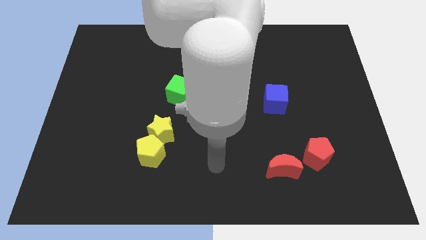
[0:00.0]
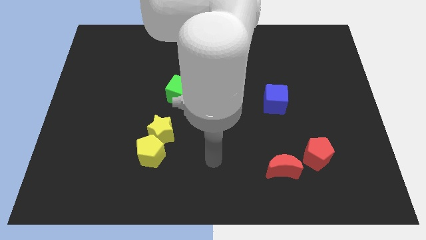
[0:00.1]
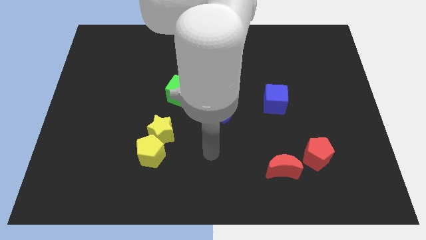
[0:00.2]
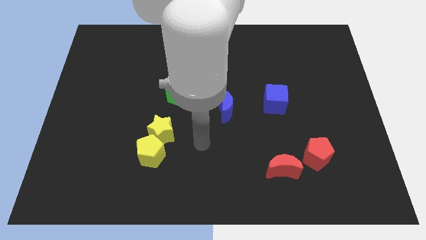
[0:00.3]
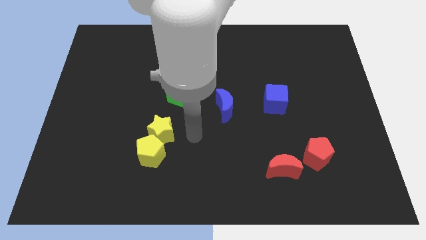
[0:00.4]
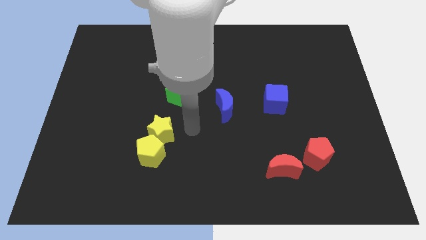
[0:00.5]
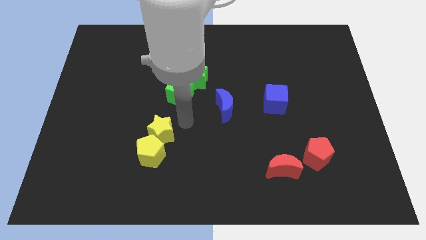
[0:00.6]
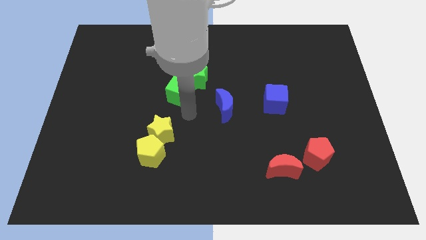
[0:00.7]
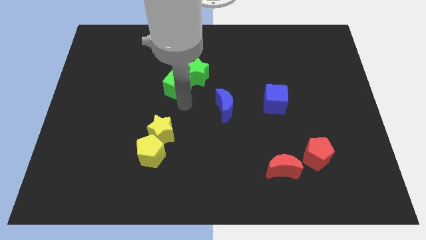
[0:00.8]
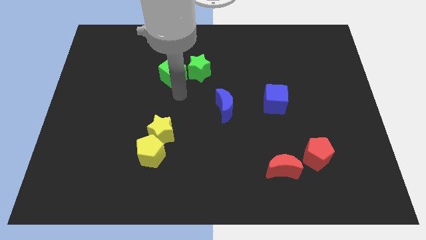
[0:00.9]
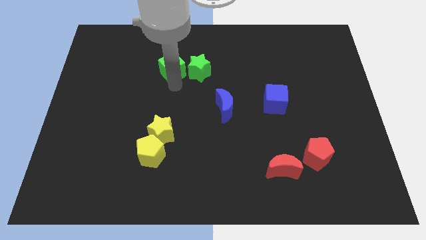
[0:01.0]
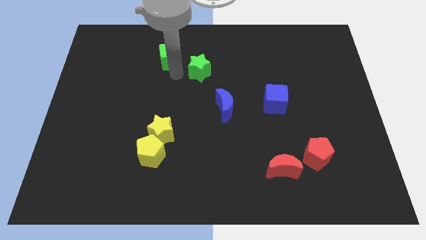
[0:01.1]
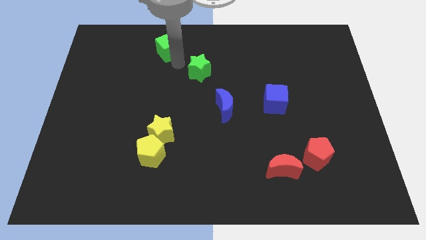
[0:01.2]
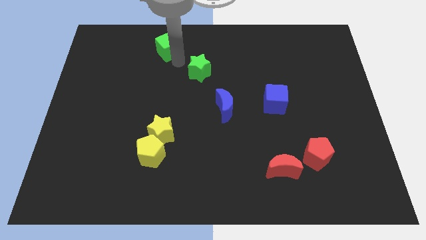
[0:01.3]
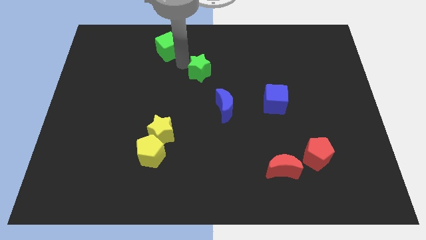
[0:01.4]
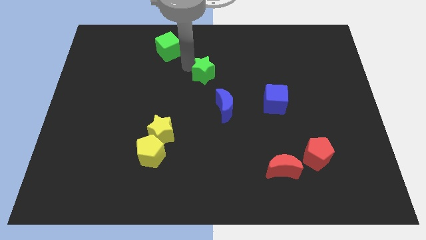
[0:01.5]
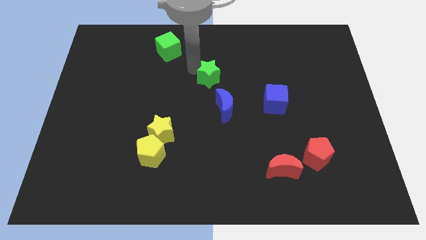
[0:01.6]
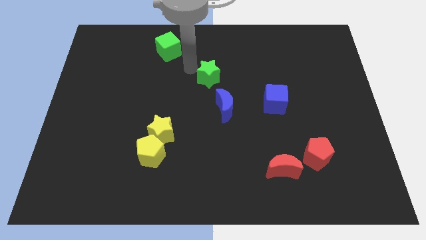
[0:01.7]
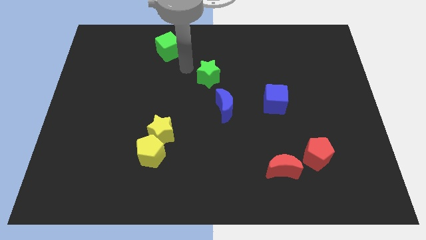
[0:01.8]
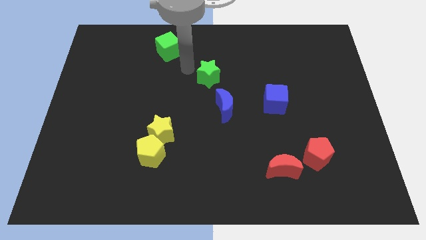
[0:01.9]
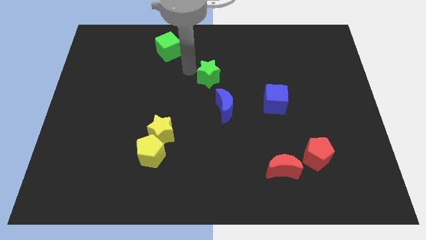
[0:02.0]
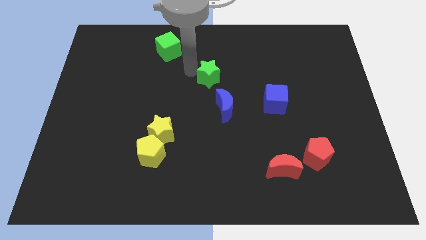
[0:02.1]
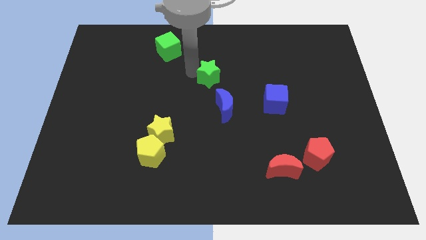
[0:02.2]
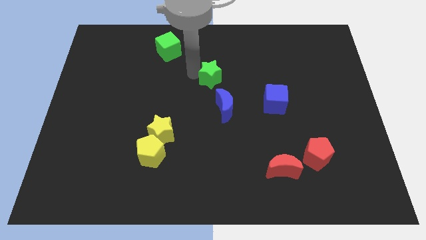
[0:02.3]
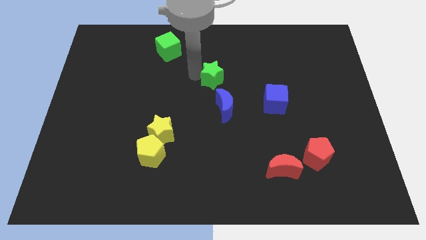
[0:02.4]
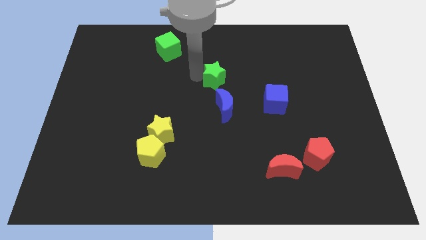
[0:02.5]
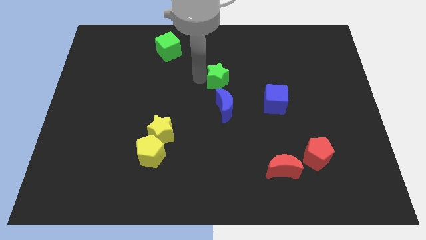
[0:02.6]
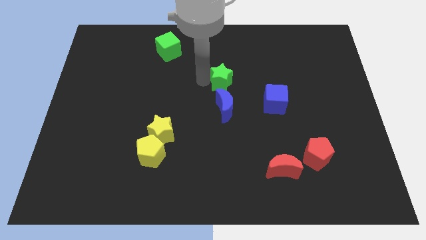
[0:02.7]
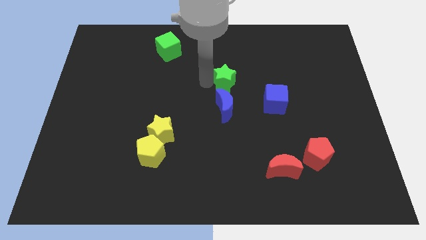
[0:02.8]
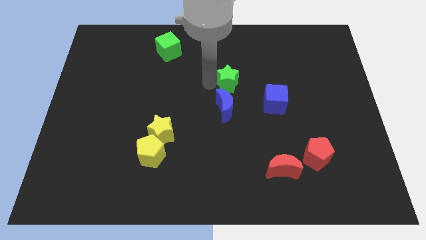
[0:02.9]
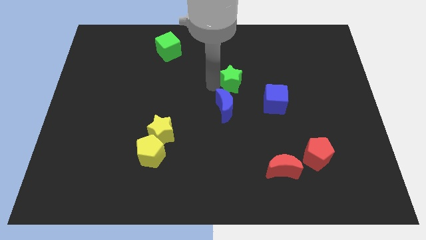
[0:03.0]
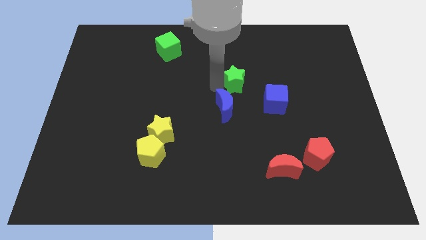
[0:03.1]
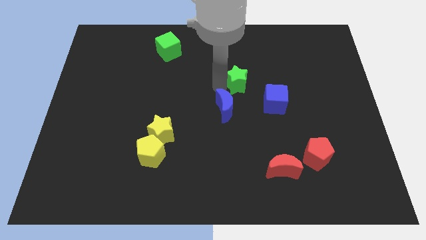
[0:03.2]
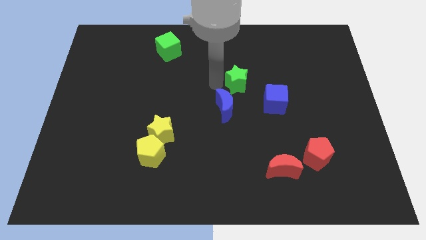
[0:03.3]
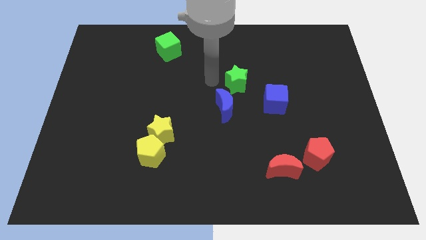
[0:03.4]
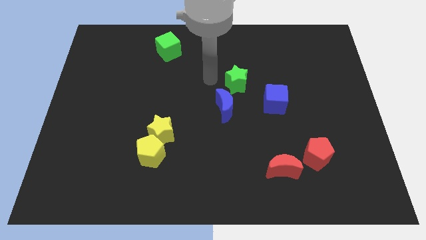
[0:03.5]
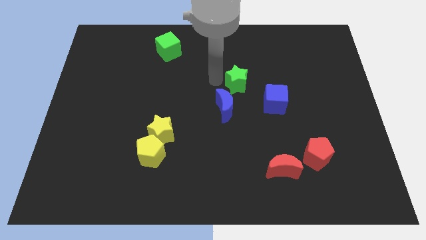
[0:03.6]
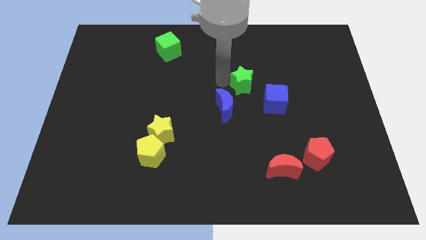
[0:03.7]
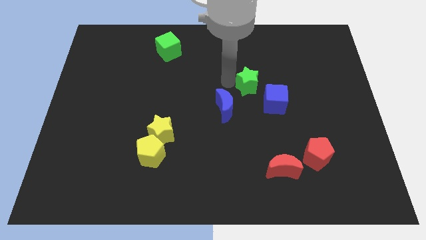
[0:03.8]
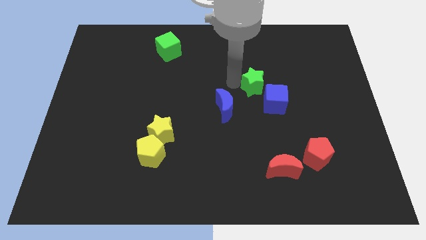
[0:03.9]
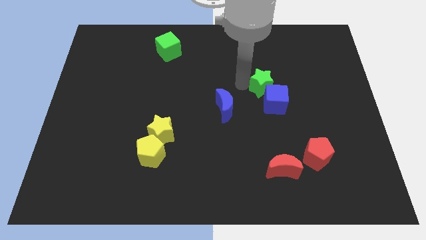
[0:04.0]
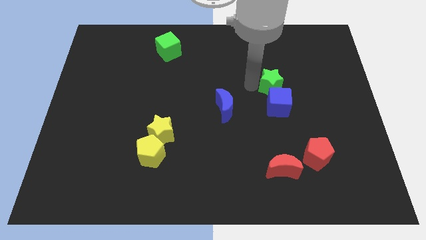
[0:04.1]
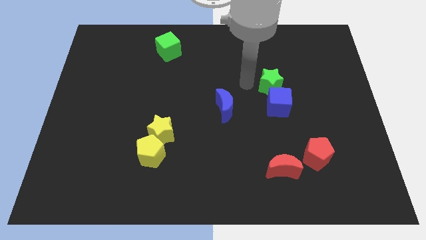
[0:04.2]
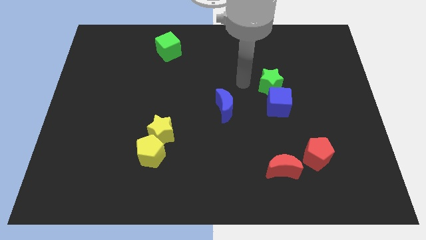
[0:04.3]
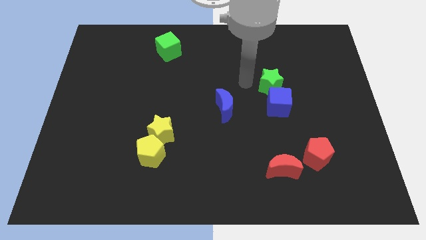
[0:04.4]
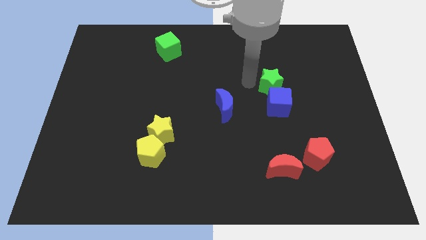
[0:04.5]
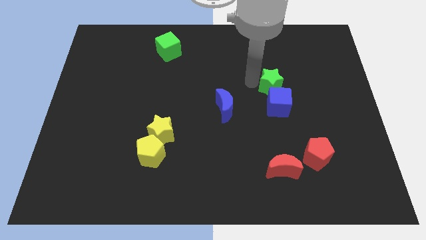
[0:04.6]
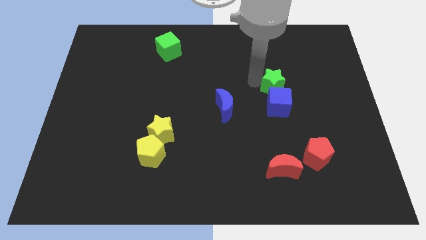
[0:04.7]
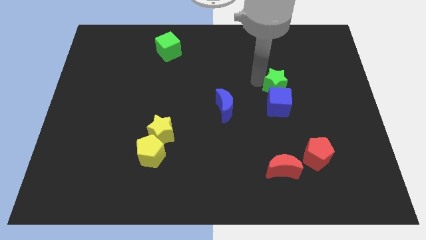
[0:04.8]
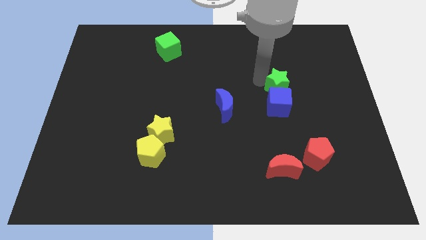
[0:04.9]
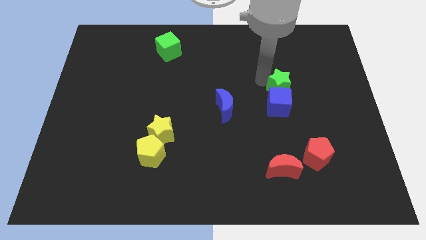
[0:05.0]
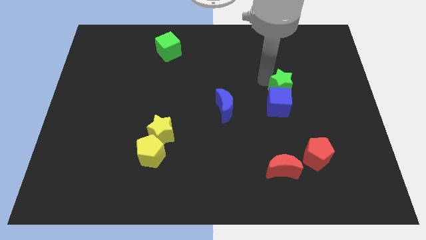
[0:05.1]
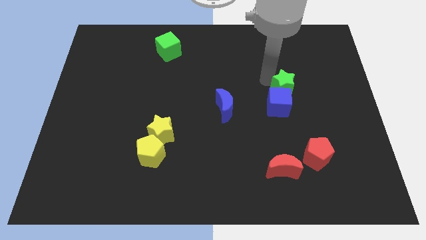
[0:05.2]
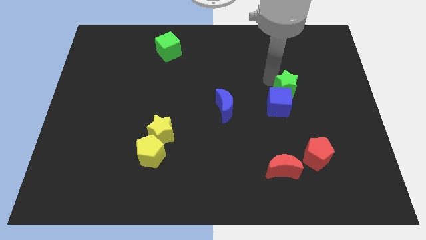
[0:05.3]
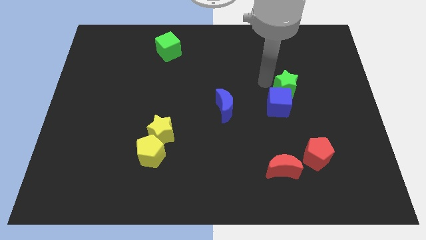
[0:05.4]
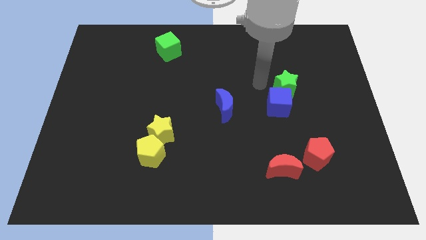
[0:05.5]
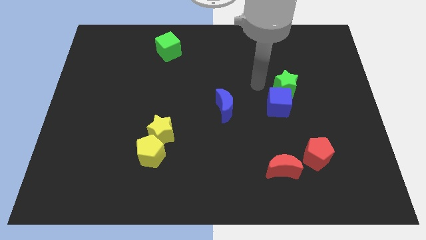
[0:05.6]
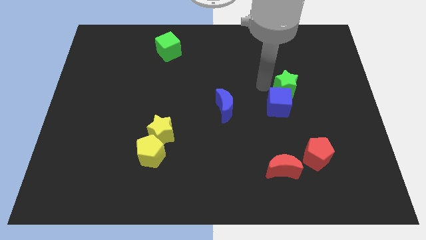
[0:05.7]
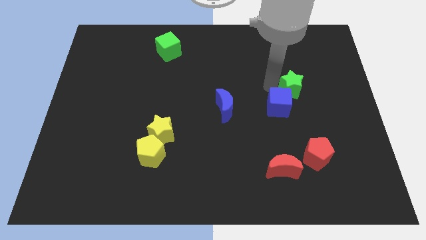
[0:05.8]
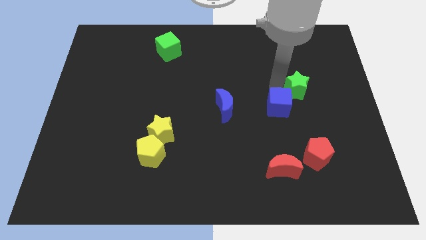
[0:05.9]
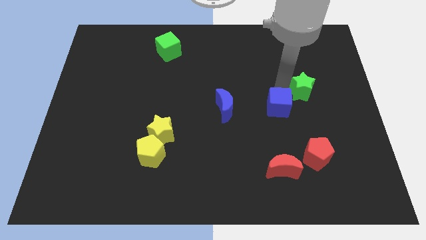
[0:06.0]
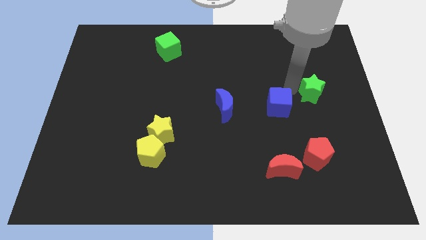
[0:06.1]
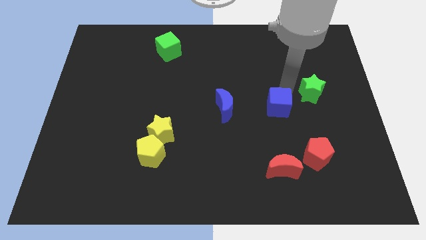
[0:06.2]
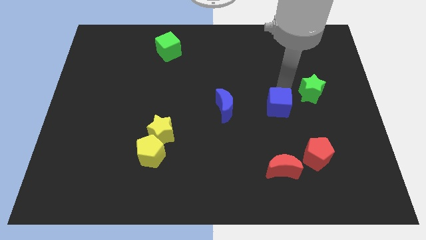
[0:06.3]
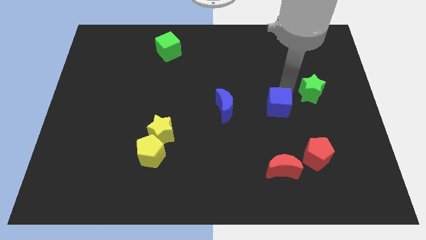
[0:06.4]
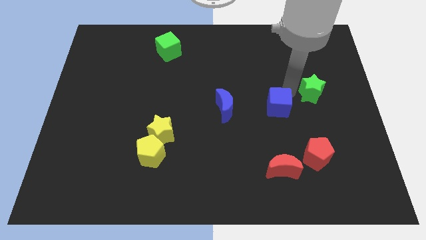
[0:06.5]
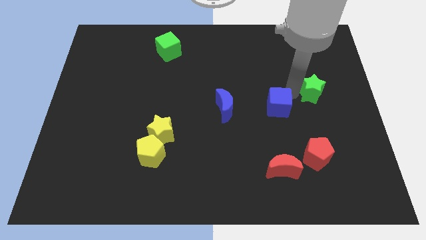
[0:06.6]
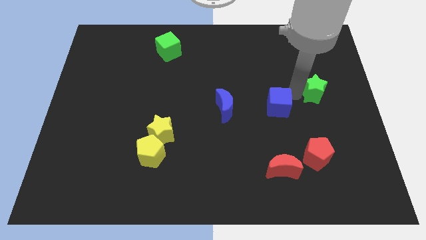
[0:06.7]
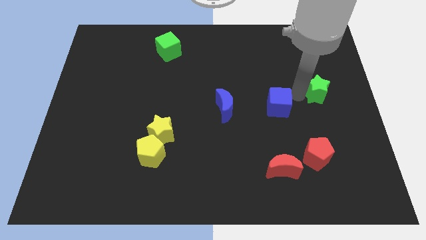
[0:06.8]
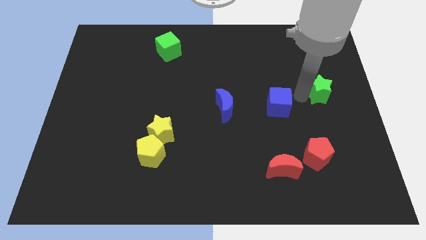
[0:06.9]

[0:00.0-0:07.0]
slide the green star to the center right
